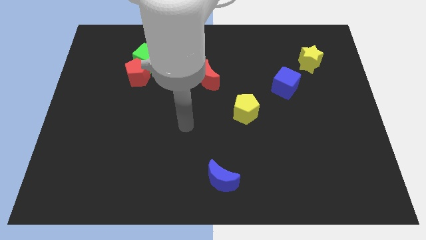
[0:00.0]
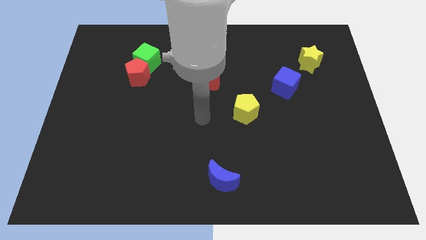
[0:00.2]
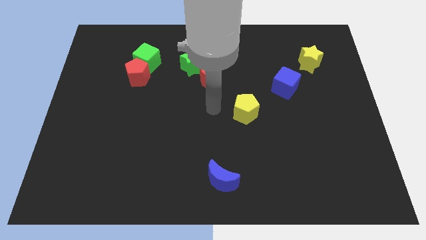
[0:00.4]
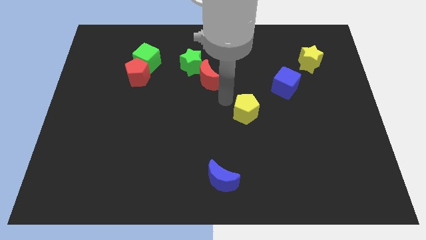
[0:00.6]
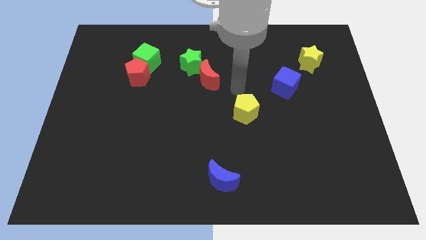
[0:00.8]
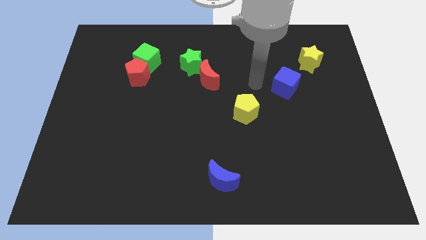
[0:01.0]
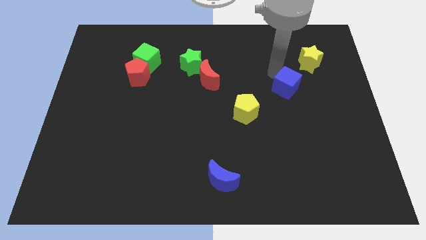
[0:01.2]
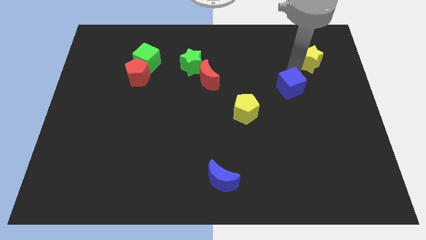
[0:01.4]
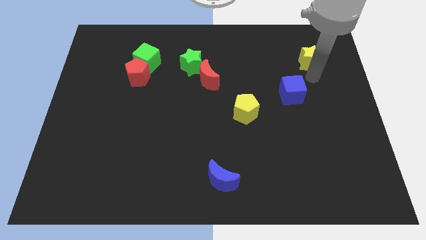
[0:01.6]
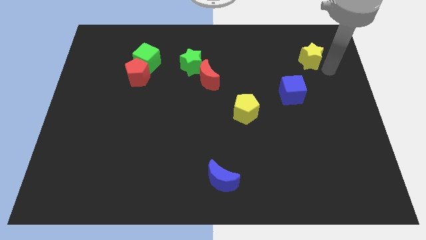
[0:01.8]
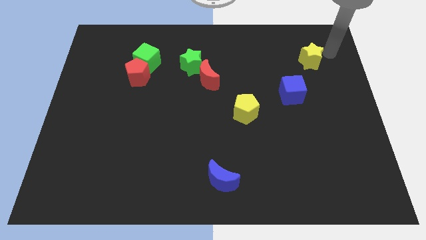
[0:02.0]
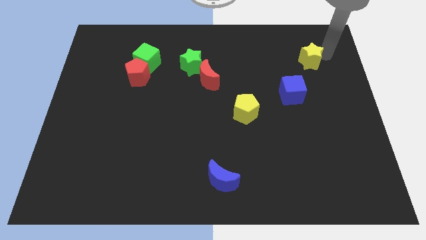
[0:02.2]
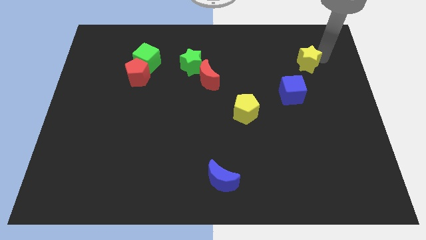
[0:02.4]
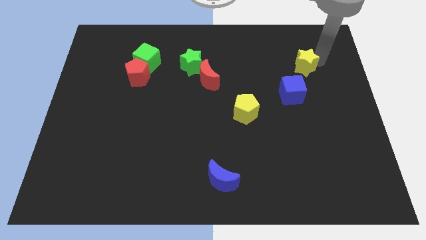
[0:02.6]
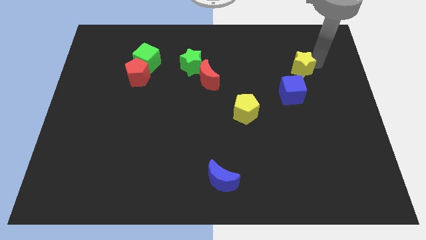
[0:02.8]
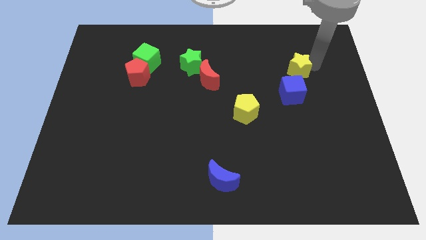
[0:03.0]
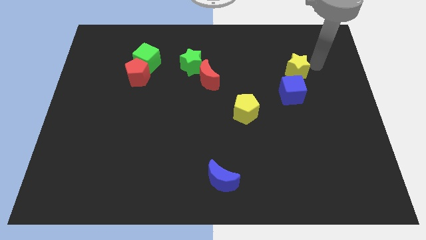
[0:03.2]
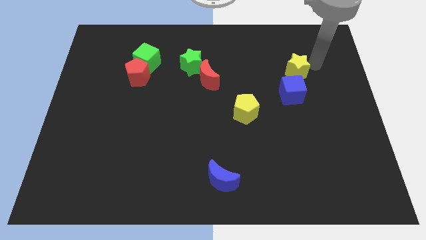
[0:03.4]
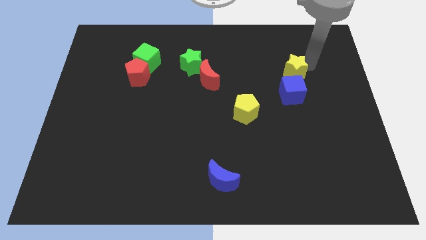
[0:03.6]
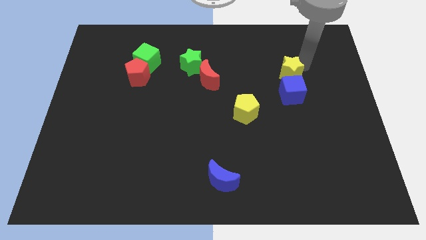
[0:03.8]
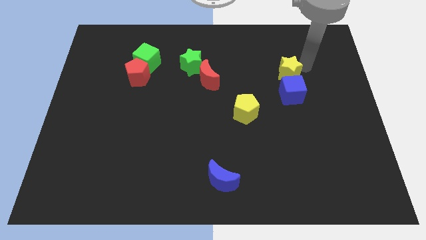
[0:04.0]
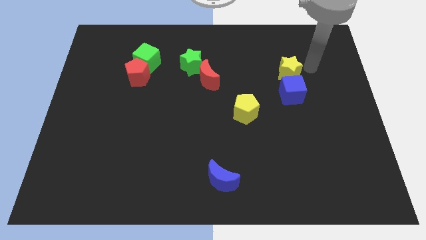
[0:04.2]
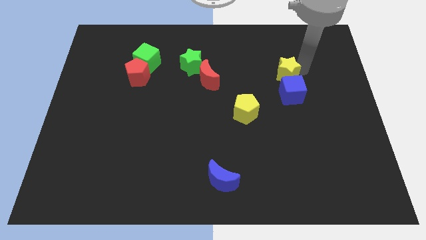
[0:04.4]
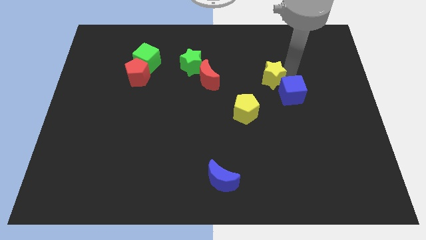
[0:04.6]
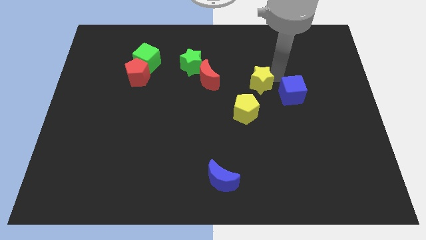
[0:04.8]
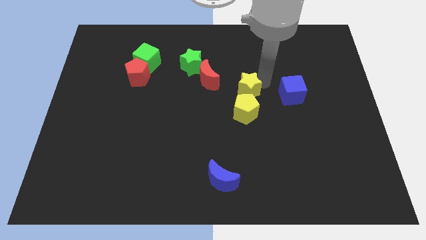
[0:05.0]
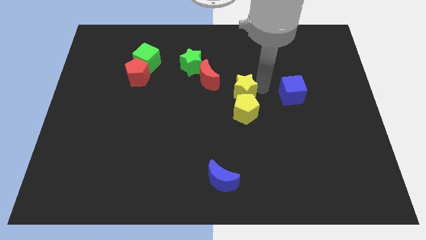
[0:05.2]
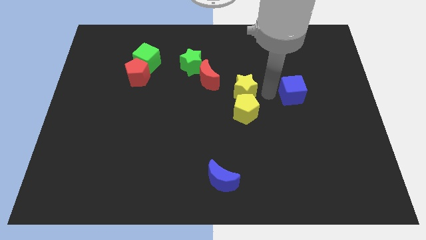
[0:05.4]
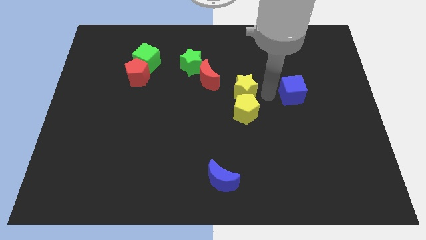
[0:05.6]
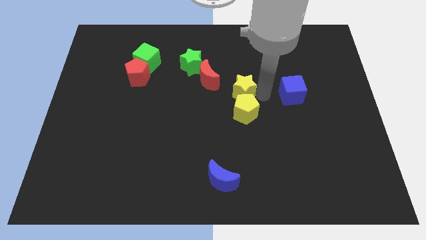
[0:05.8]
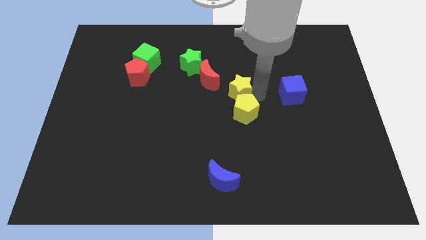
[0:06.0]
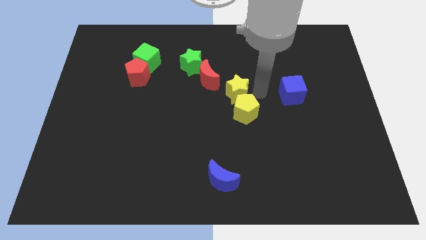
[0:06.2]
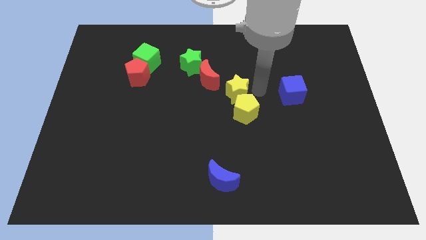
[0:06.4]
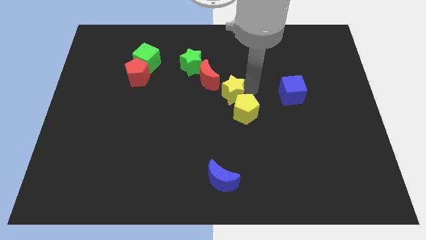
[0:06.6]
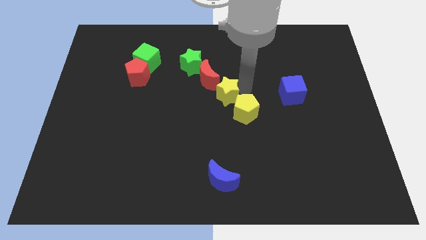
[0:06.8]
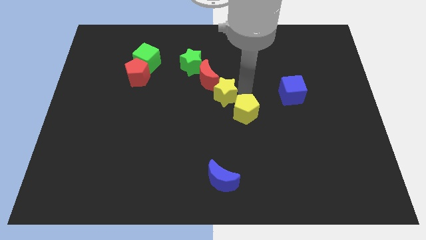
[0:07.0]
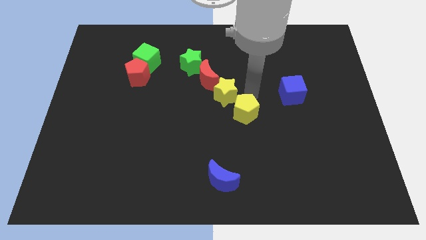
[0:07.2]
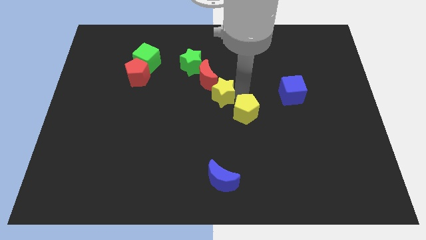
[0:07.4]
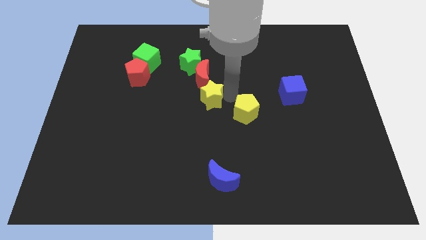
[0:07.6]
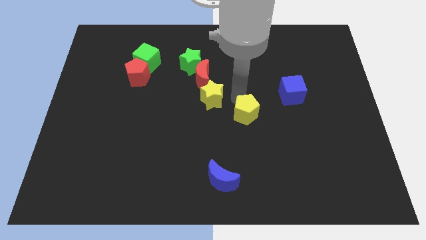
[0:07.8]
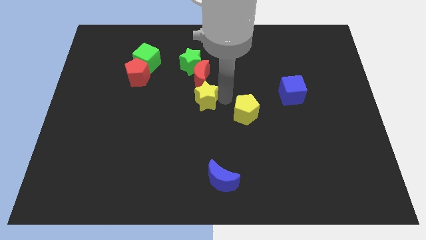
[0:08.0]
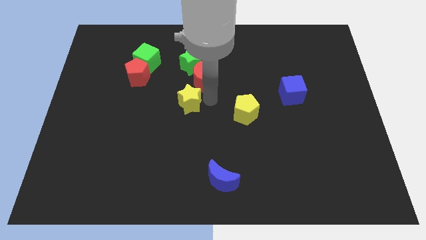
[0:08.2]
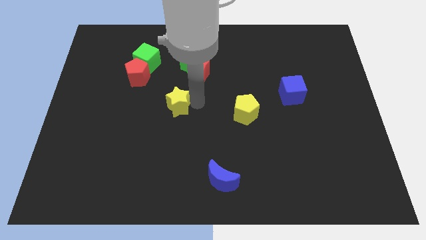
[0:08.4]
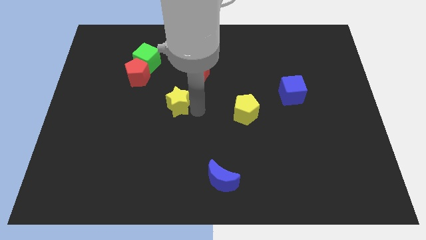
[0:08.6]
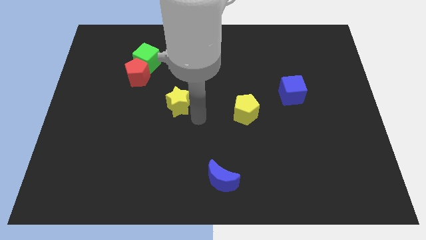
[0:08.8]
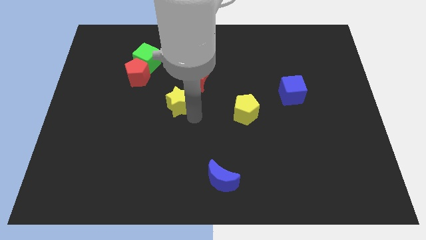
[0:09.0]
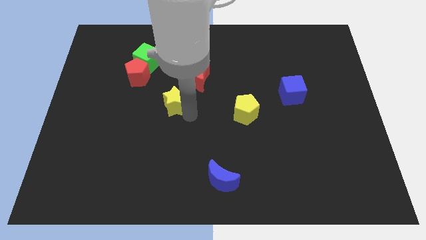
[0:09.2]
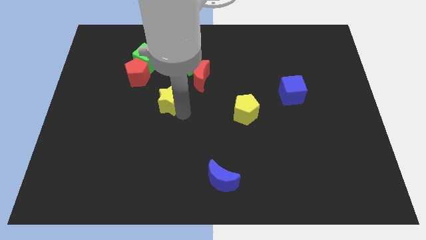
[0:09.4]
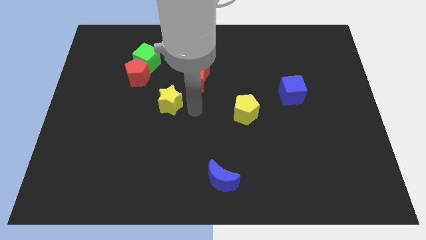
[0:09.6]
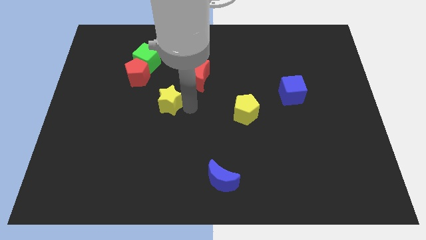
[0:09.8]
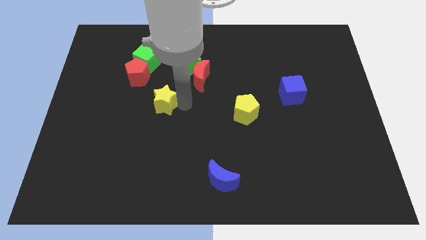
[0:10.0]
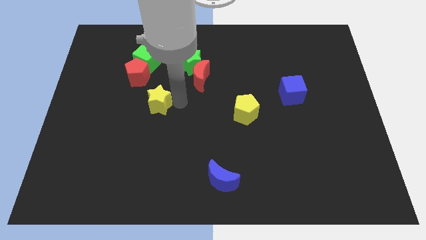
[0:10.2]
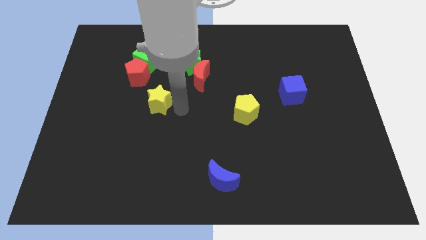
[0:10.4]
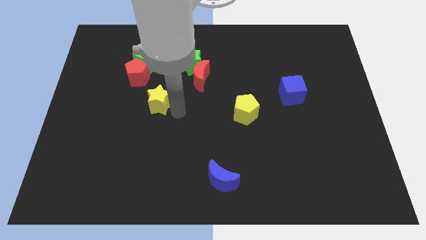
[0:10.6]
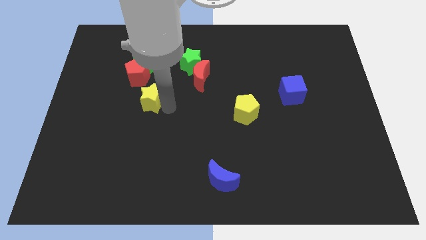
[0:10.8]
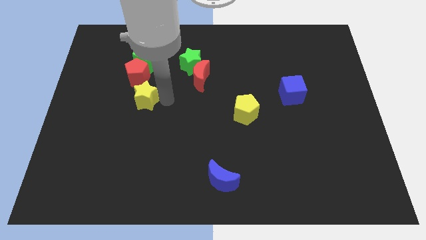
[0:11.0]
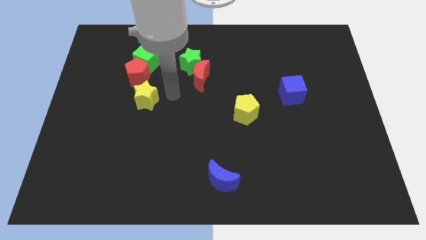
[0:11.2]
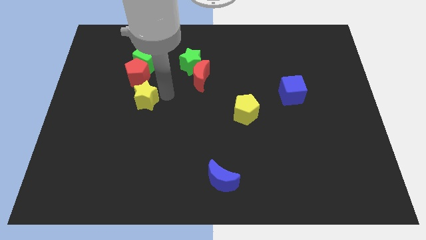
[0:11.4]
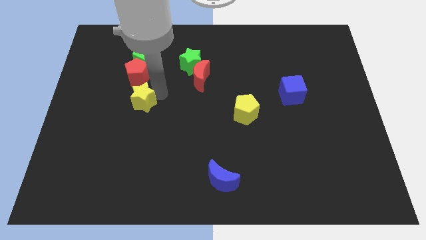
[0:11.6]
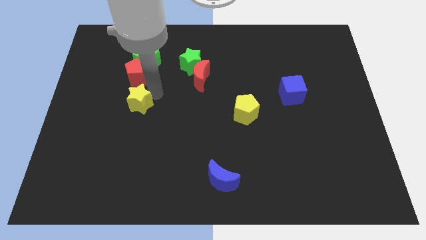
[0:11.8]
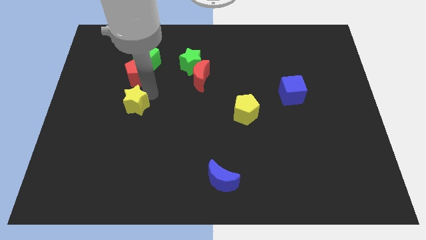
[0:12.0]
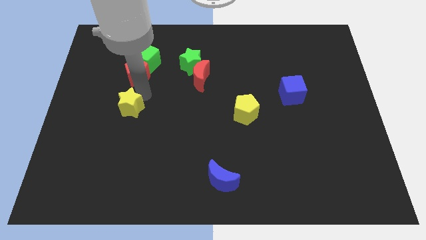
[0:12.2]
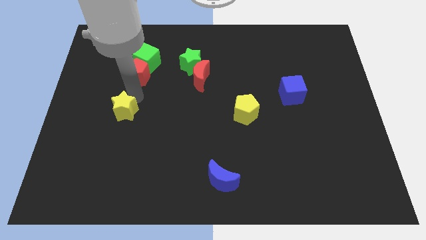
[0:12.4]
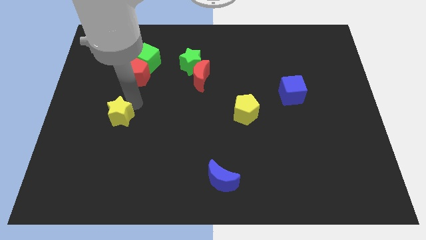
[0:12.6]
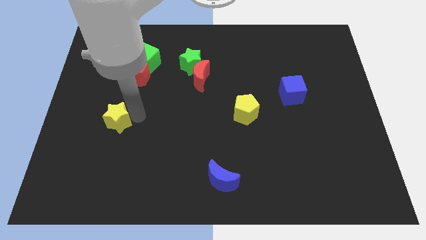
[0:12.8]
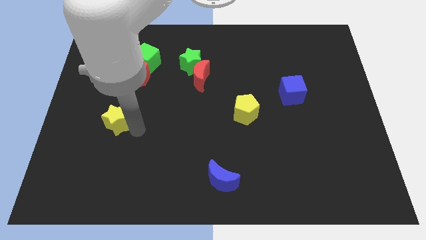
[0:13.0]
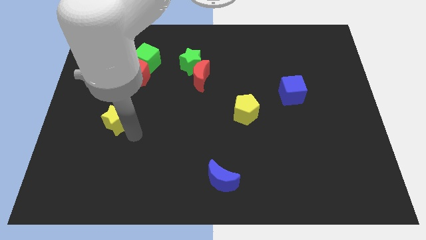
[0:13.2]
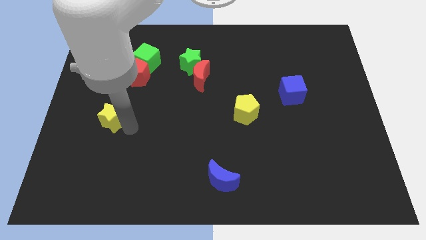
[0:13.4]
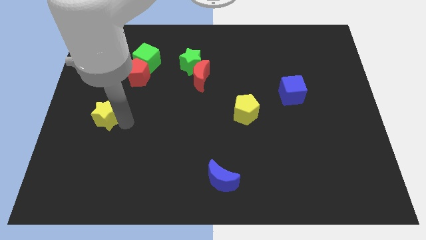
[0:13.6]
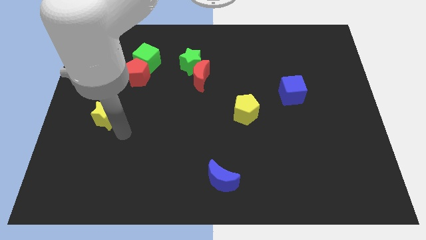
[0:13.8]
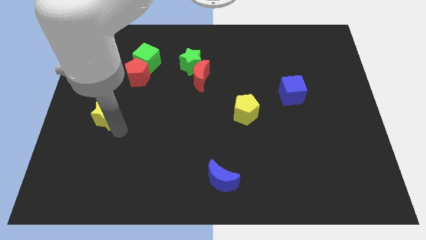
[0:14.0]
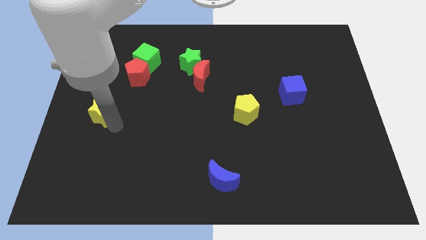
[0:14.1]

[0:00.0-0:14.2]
put the yellow star to the center left
